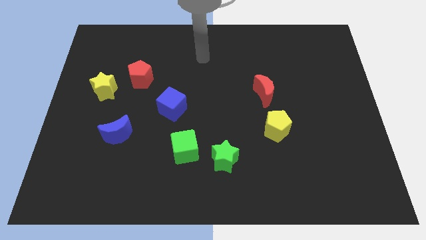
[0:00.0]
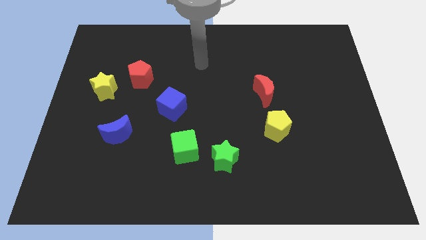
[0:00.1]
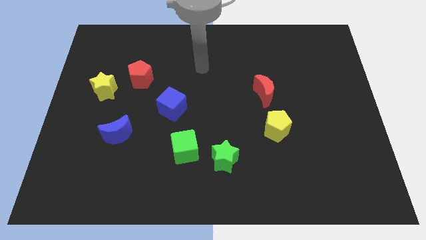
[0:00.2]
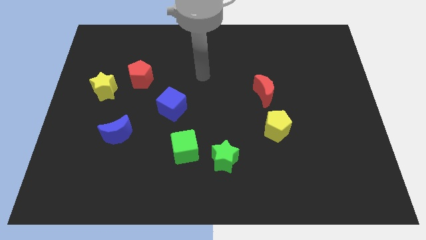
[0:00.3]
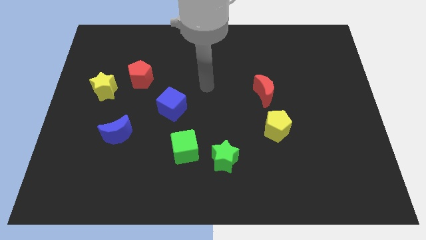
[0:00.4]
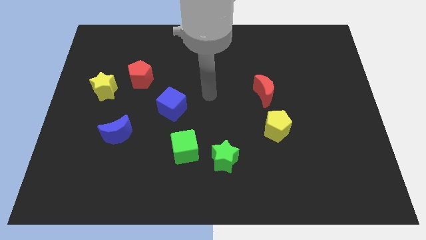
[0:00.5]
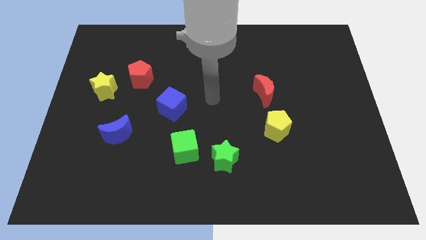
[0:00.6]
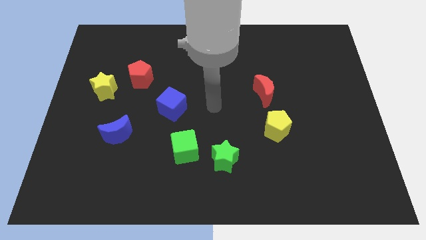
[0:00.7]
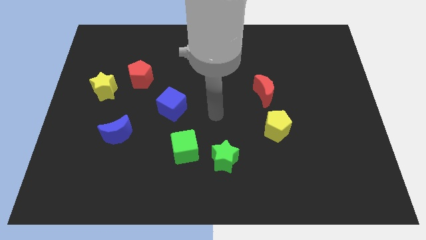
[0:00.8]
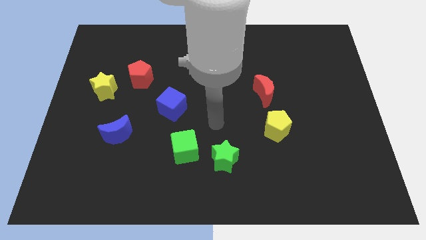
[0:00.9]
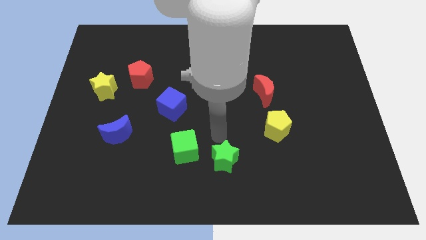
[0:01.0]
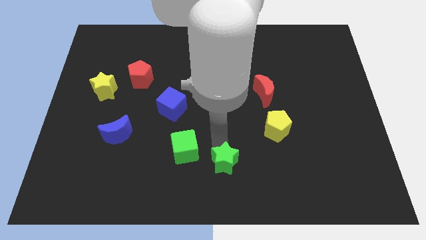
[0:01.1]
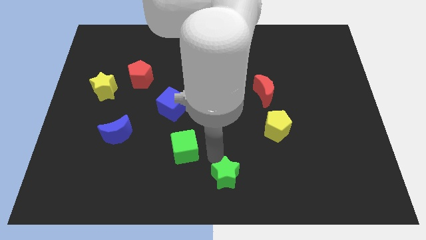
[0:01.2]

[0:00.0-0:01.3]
separate the green cube from the green star

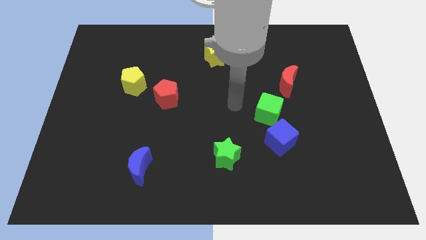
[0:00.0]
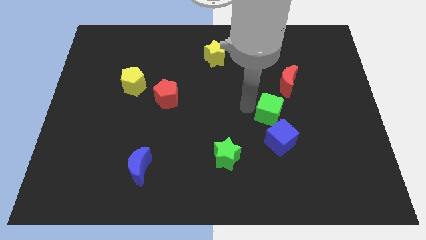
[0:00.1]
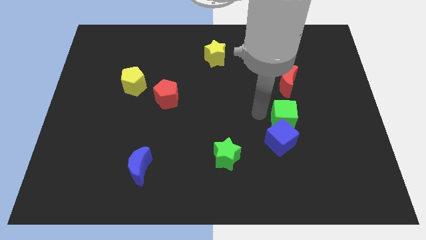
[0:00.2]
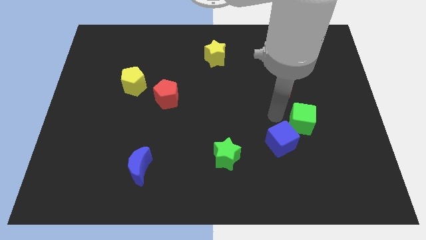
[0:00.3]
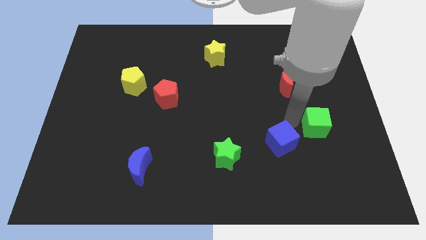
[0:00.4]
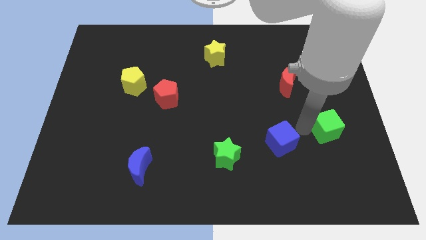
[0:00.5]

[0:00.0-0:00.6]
separate the blue cube from the green cube

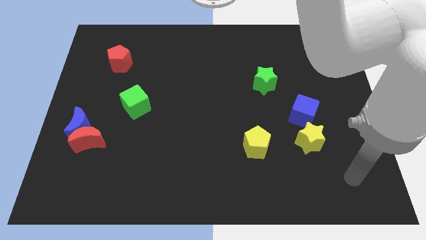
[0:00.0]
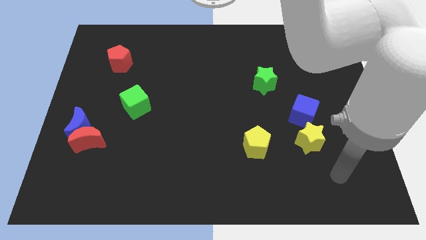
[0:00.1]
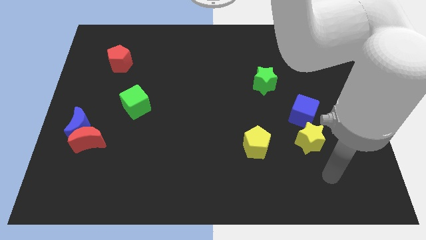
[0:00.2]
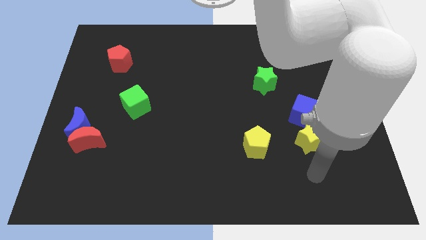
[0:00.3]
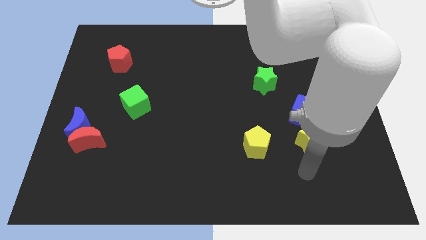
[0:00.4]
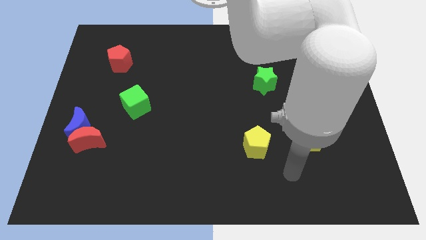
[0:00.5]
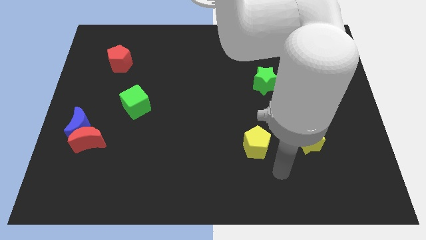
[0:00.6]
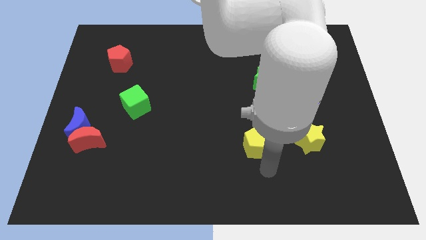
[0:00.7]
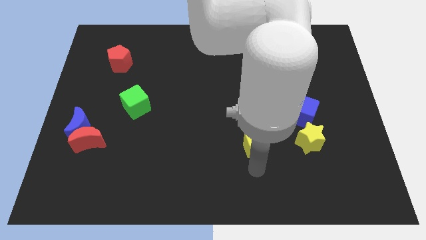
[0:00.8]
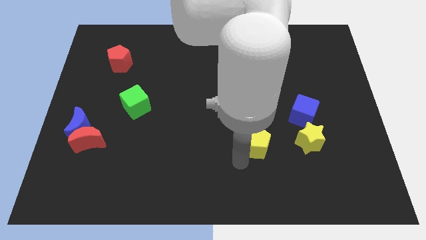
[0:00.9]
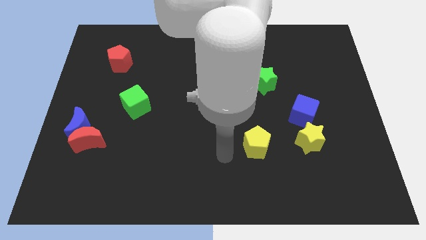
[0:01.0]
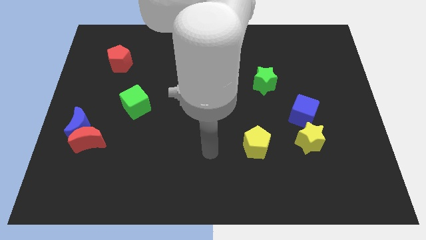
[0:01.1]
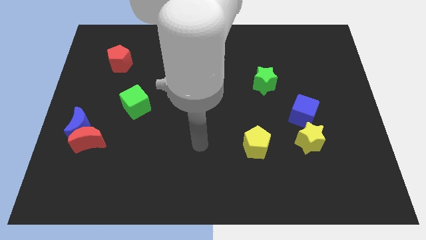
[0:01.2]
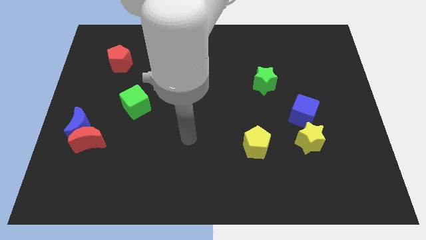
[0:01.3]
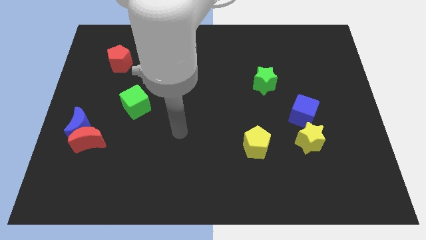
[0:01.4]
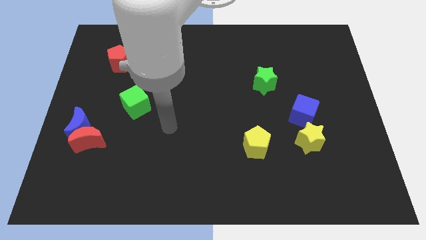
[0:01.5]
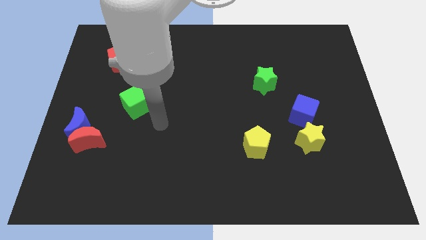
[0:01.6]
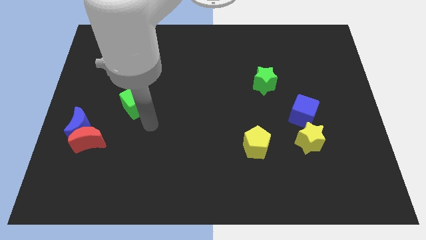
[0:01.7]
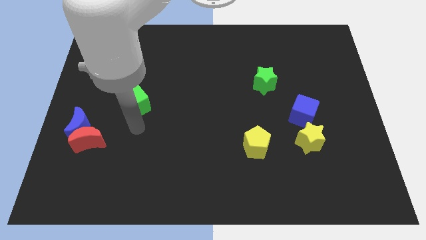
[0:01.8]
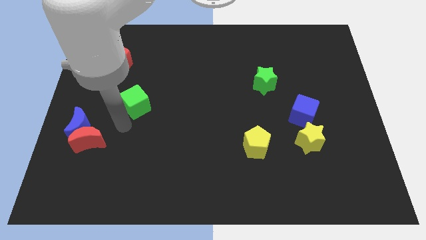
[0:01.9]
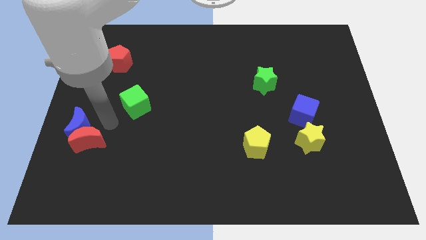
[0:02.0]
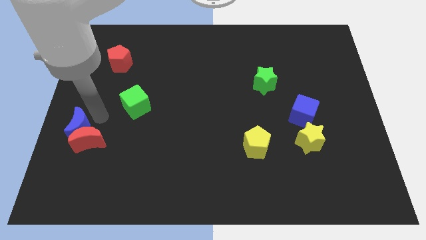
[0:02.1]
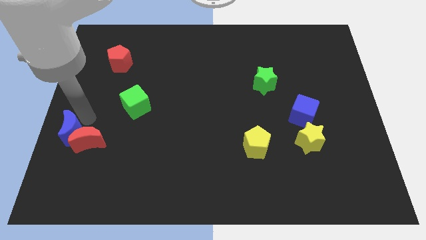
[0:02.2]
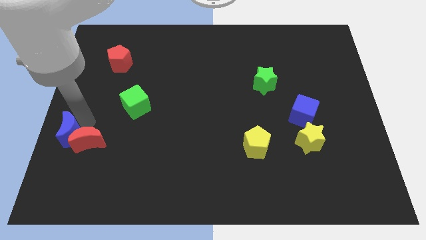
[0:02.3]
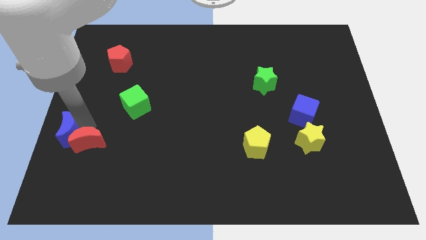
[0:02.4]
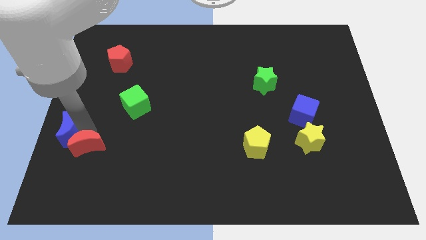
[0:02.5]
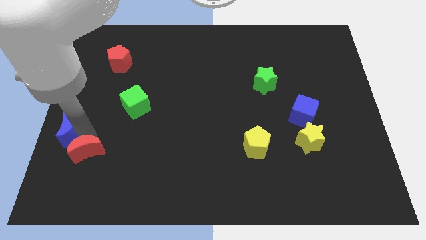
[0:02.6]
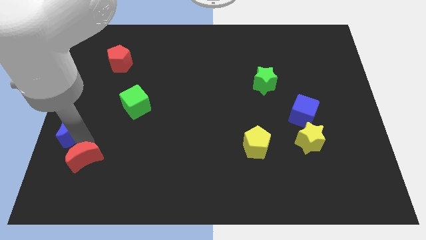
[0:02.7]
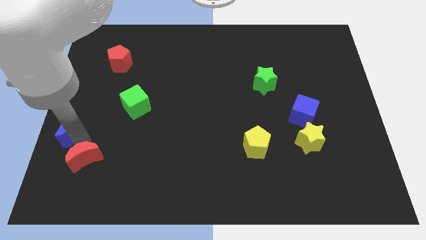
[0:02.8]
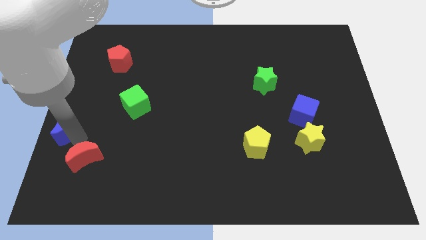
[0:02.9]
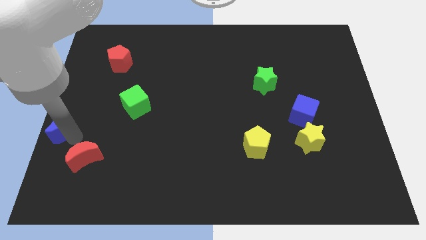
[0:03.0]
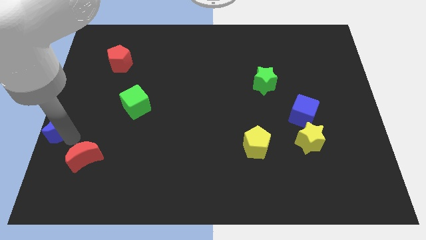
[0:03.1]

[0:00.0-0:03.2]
pull the red moon apart from the blue moon

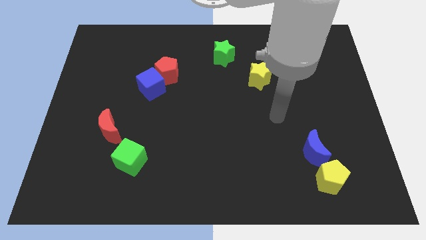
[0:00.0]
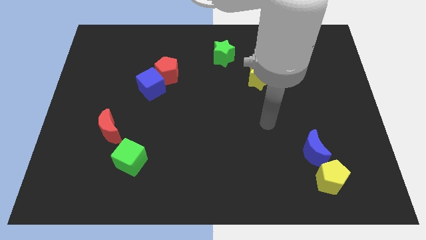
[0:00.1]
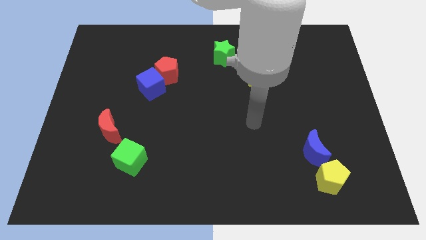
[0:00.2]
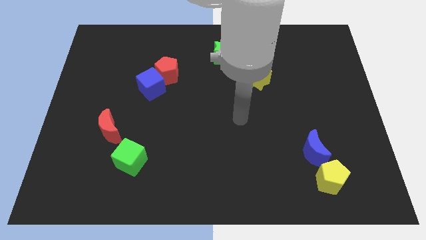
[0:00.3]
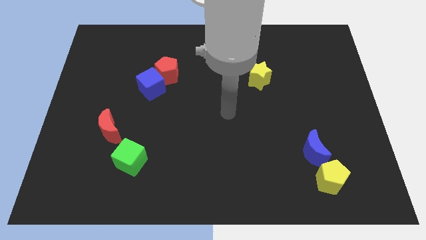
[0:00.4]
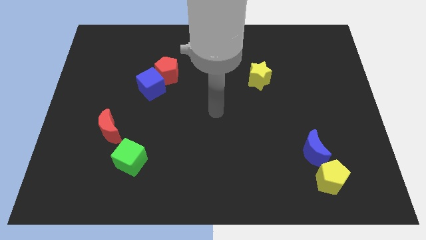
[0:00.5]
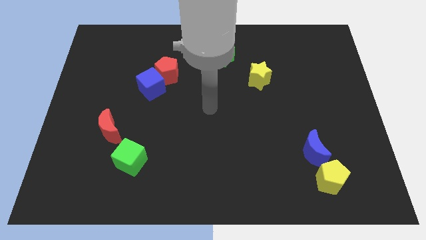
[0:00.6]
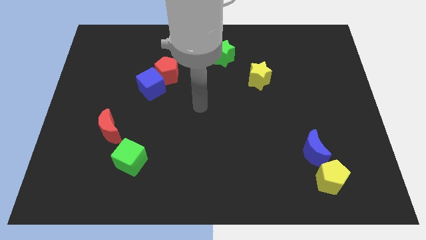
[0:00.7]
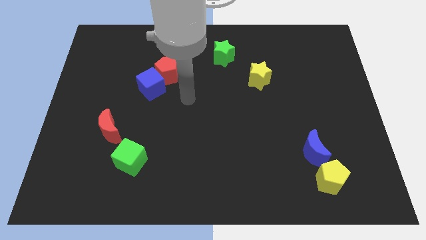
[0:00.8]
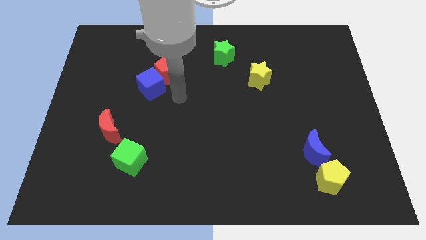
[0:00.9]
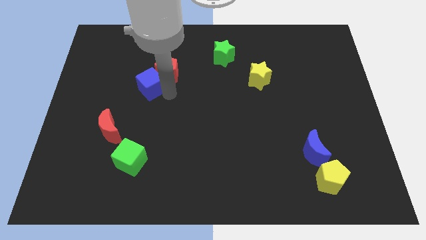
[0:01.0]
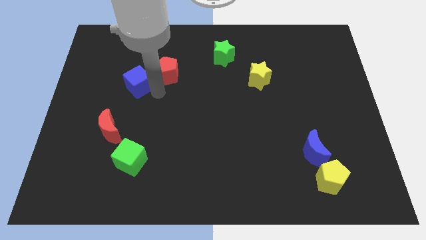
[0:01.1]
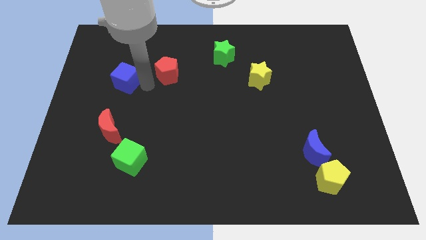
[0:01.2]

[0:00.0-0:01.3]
separate the red pentagon from the blue cube

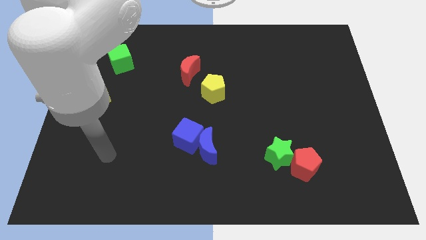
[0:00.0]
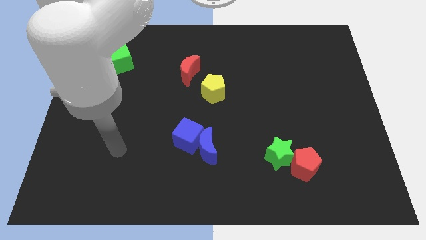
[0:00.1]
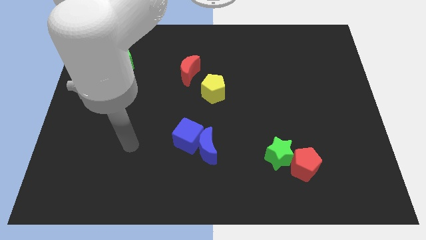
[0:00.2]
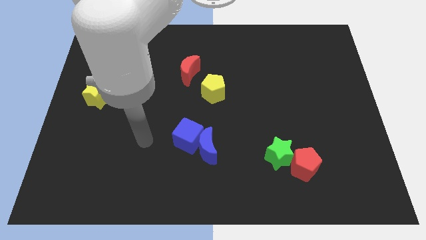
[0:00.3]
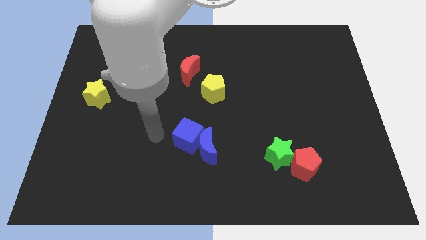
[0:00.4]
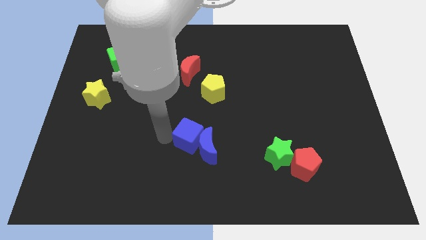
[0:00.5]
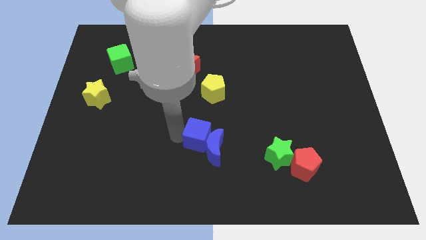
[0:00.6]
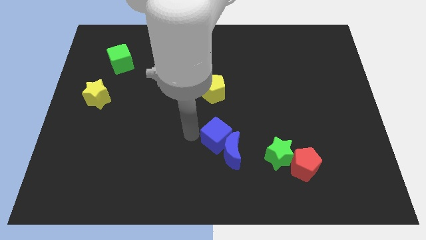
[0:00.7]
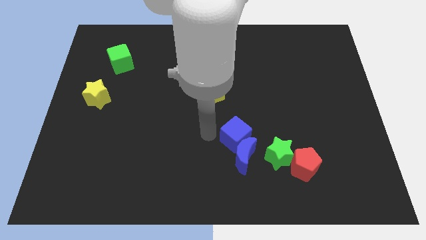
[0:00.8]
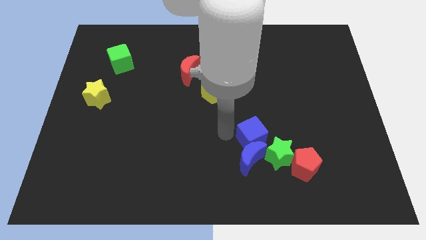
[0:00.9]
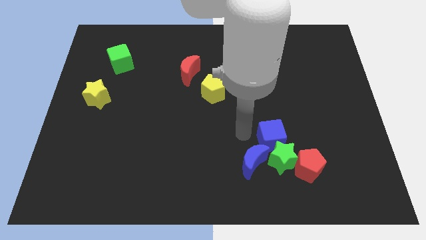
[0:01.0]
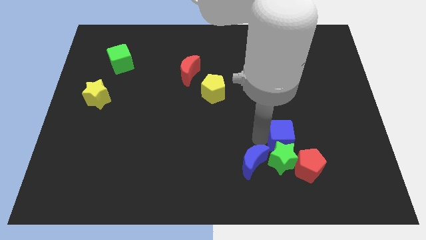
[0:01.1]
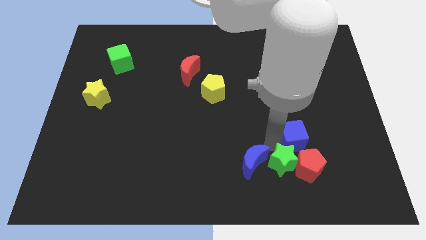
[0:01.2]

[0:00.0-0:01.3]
pull the blue moon apart from the blue cube

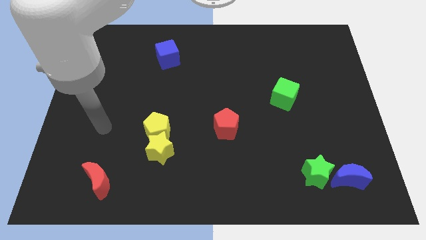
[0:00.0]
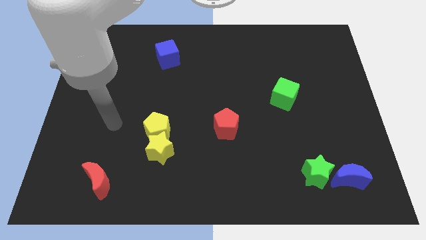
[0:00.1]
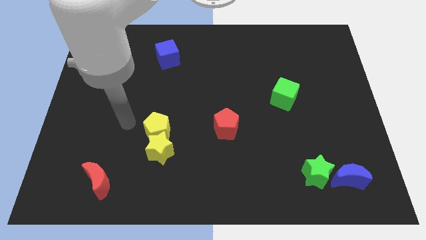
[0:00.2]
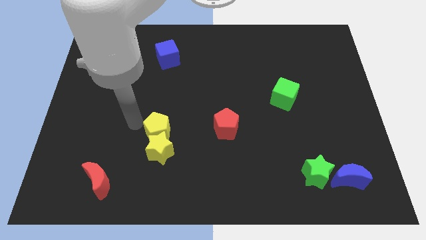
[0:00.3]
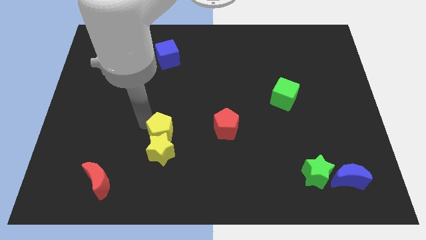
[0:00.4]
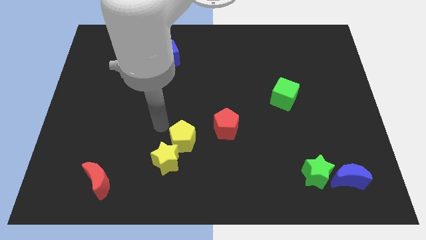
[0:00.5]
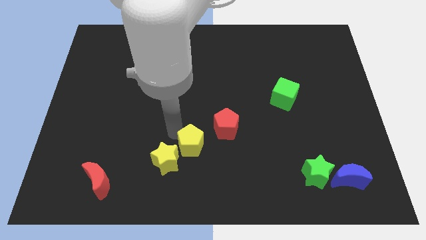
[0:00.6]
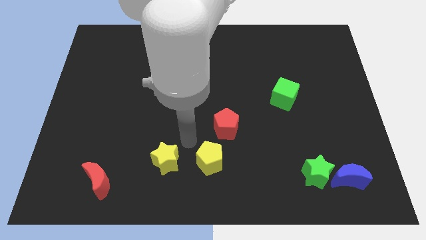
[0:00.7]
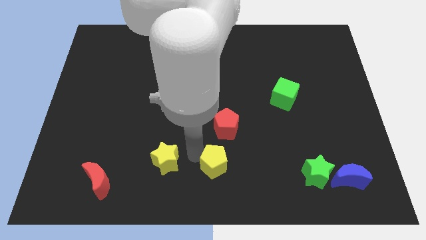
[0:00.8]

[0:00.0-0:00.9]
separate the yellow star from the yellow pentagon

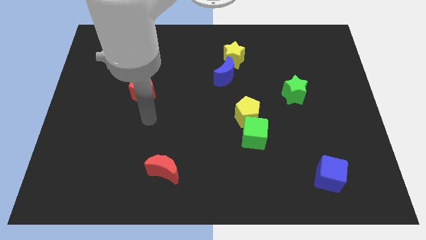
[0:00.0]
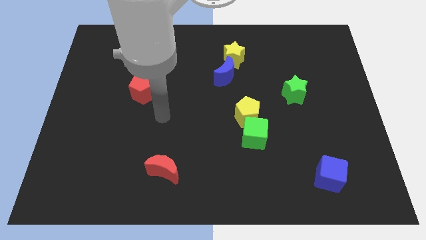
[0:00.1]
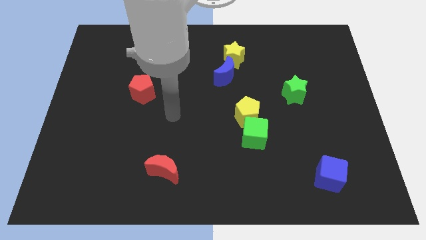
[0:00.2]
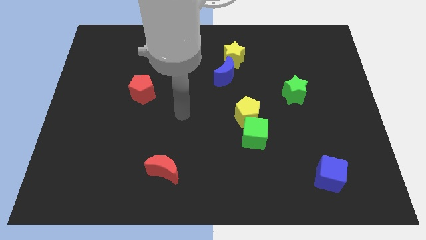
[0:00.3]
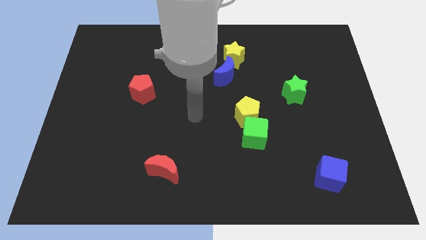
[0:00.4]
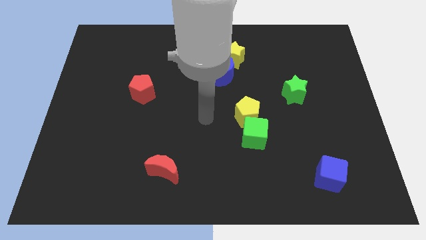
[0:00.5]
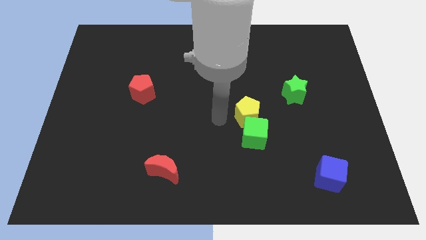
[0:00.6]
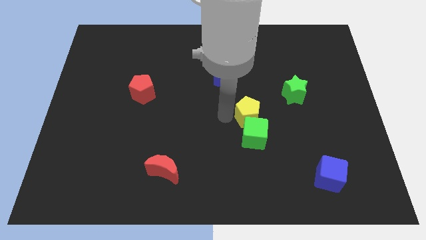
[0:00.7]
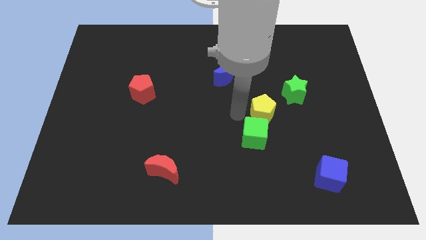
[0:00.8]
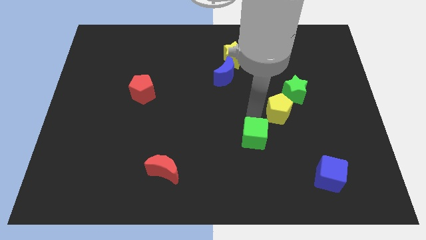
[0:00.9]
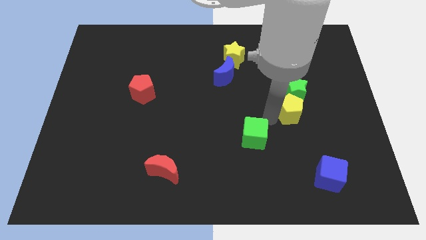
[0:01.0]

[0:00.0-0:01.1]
move the green cube away from the yellow pentagon
